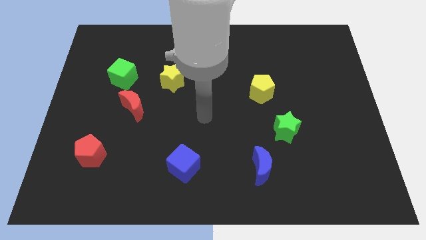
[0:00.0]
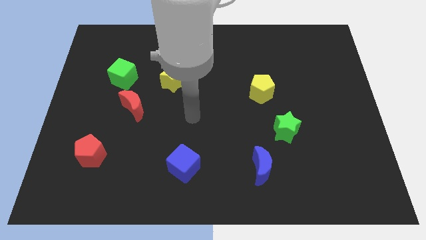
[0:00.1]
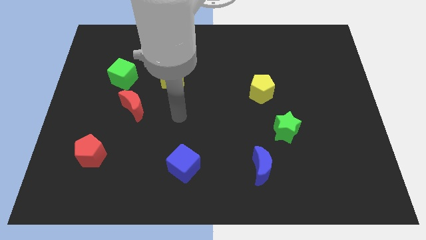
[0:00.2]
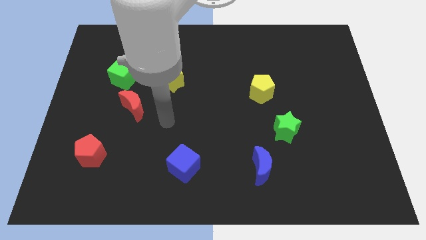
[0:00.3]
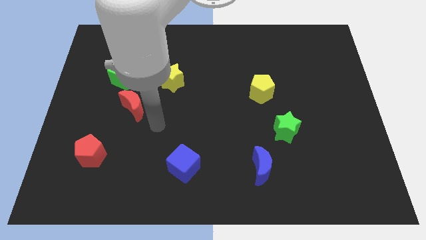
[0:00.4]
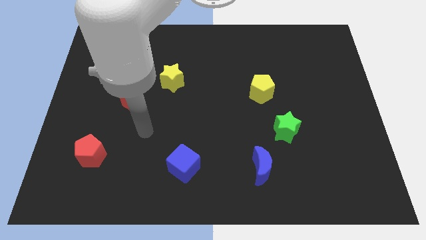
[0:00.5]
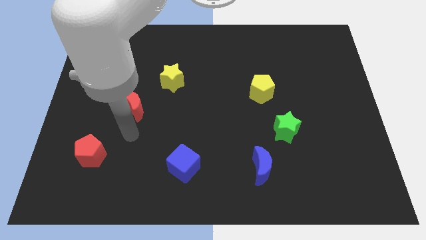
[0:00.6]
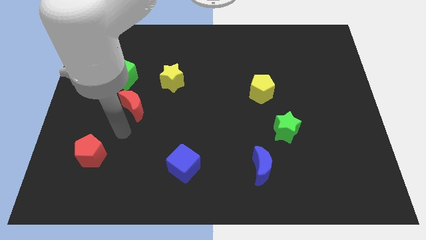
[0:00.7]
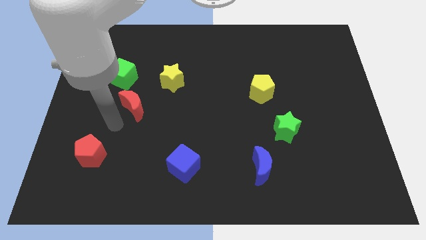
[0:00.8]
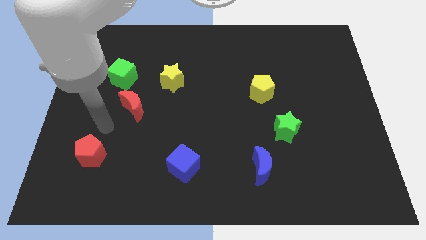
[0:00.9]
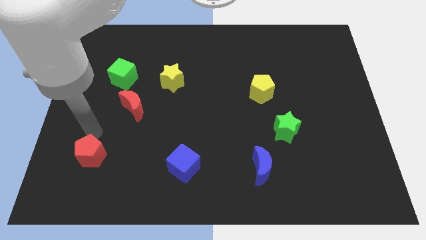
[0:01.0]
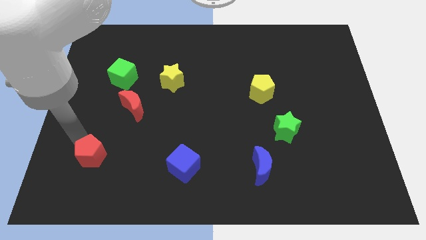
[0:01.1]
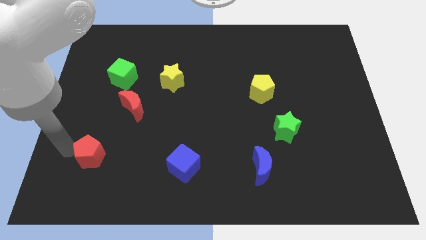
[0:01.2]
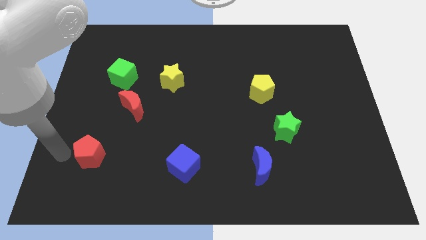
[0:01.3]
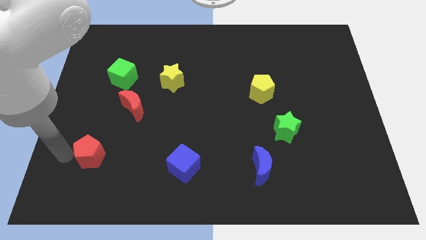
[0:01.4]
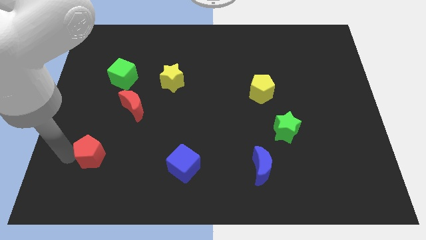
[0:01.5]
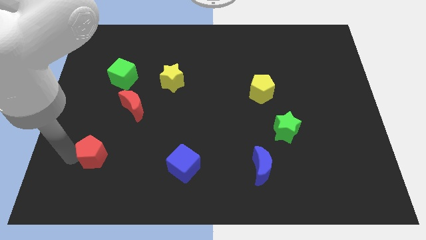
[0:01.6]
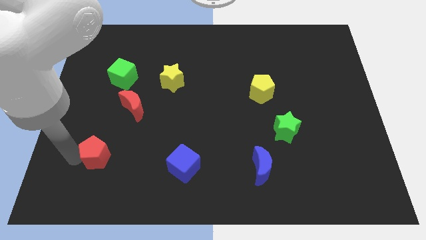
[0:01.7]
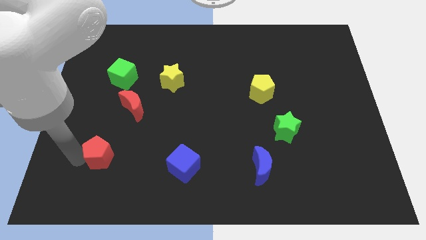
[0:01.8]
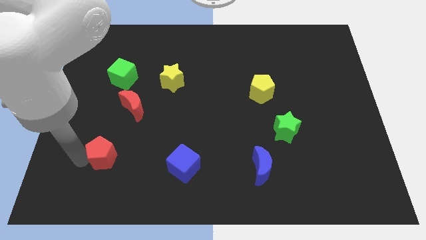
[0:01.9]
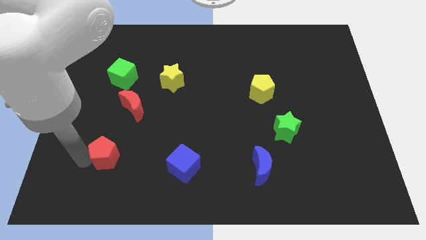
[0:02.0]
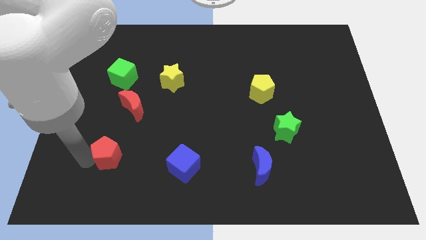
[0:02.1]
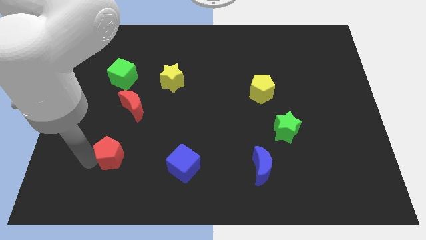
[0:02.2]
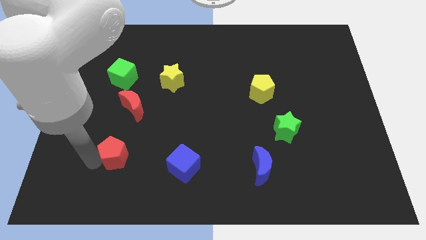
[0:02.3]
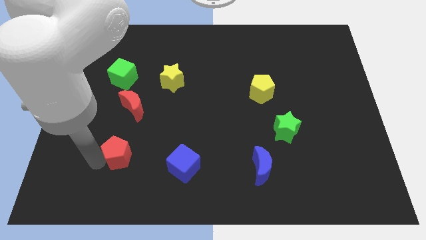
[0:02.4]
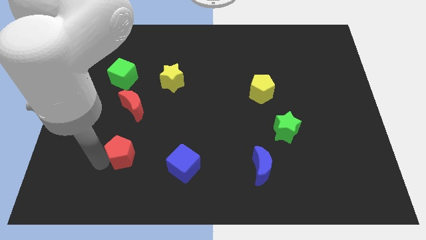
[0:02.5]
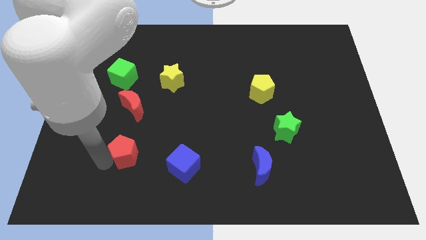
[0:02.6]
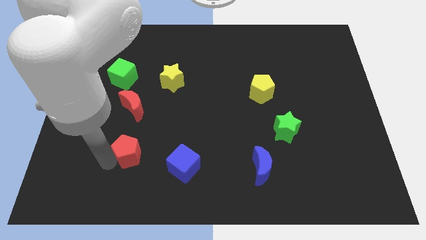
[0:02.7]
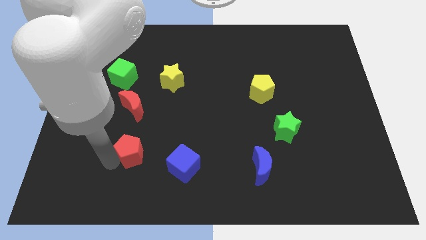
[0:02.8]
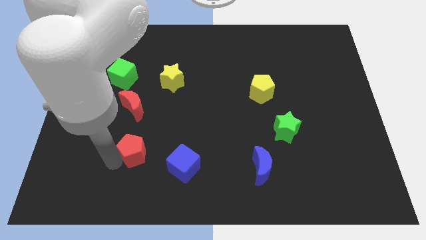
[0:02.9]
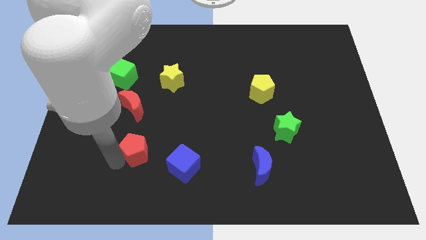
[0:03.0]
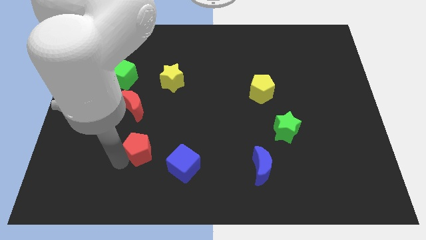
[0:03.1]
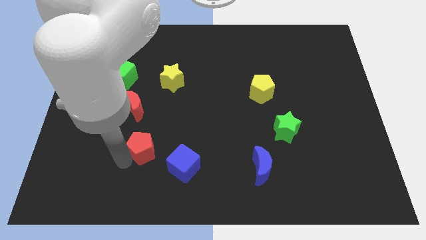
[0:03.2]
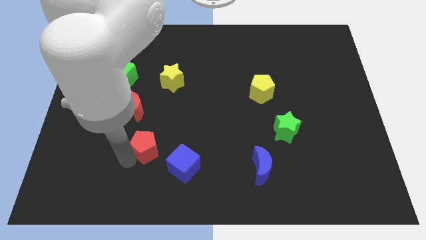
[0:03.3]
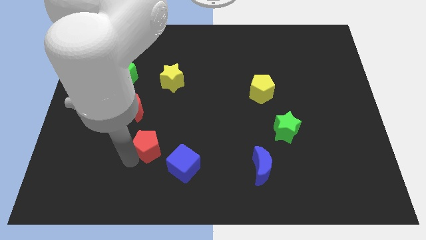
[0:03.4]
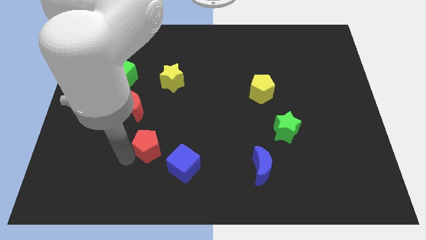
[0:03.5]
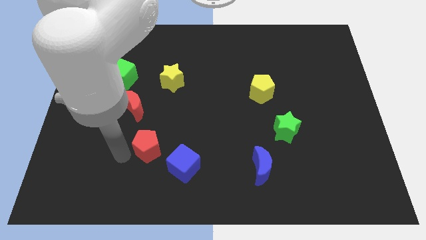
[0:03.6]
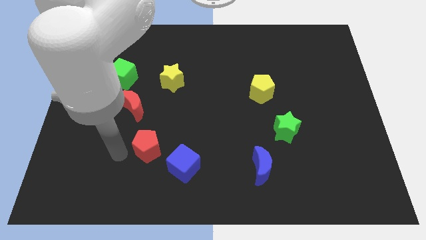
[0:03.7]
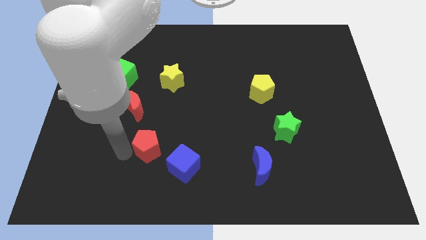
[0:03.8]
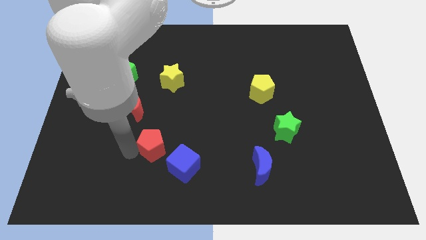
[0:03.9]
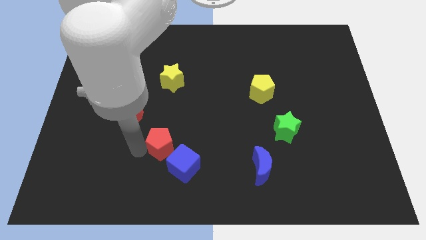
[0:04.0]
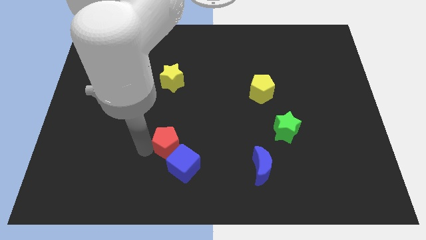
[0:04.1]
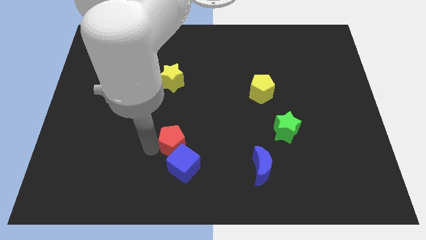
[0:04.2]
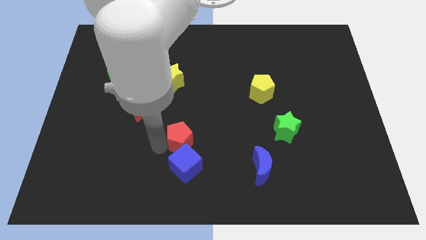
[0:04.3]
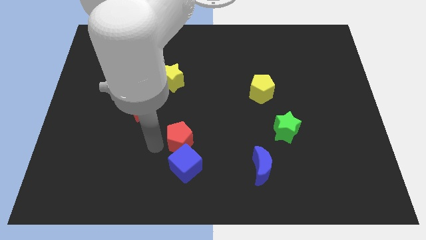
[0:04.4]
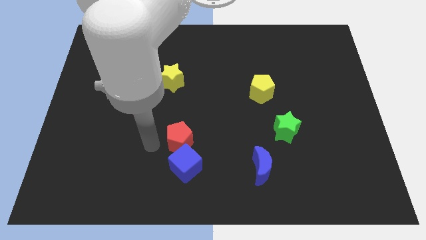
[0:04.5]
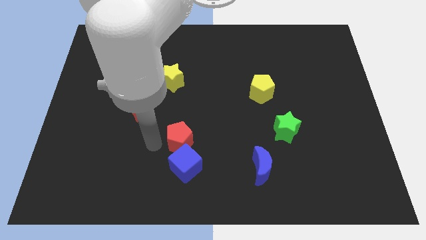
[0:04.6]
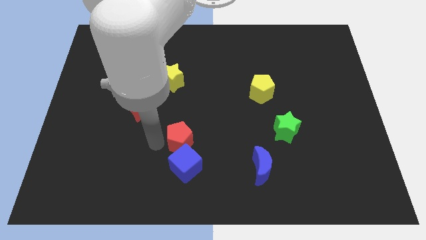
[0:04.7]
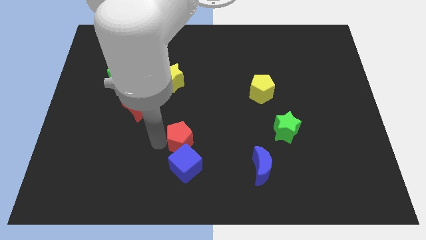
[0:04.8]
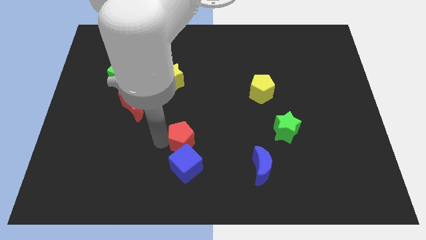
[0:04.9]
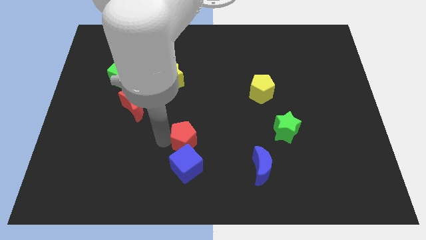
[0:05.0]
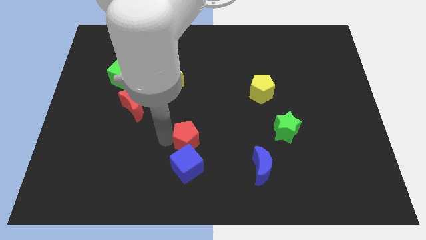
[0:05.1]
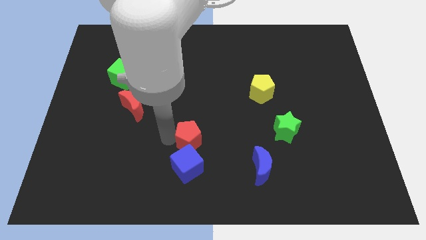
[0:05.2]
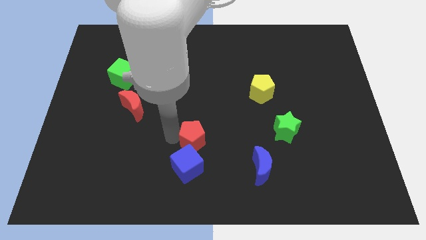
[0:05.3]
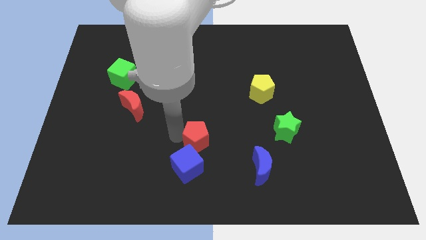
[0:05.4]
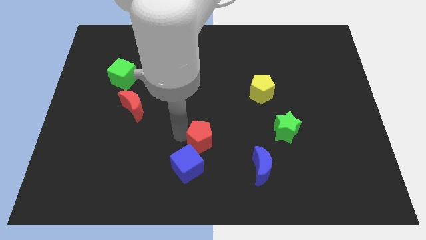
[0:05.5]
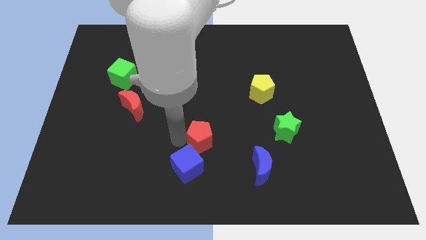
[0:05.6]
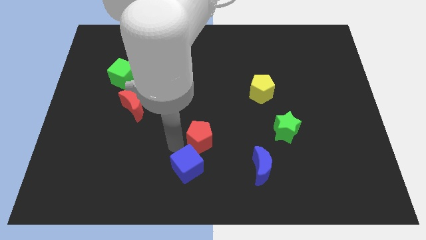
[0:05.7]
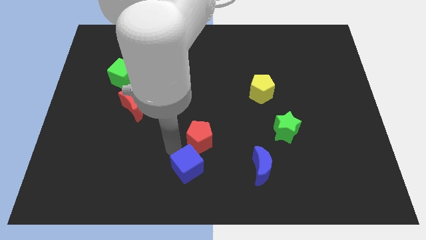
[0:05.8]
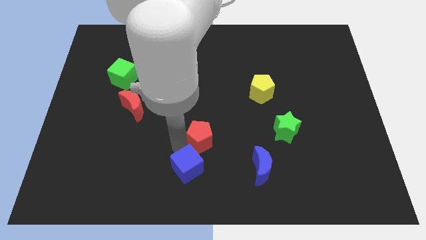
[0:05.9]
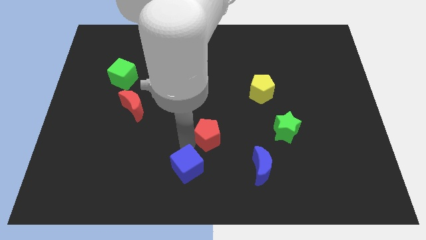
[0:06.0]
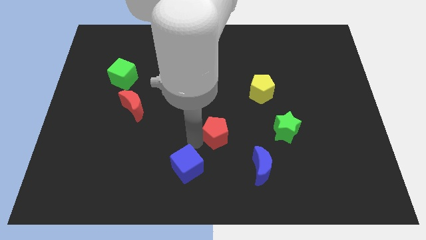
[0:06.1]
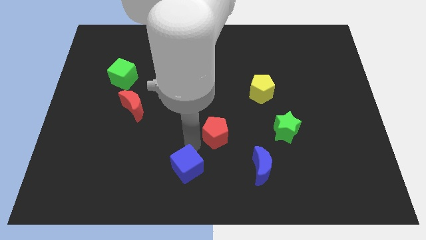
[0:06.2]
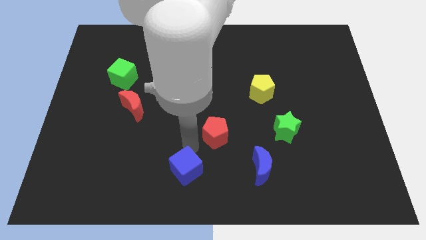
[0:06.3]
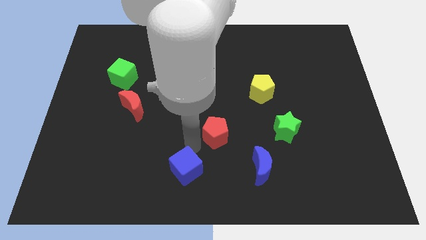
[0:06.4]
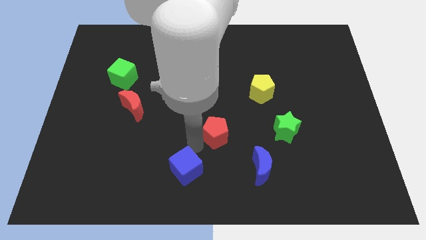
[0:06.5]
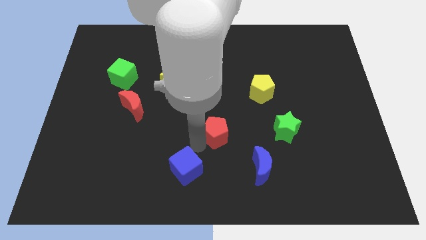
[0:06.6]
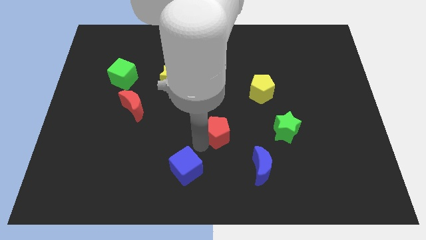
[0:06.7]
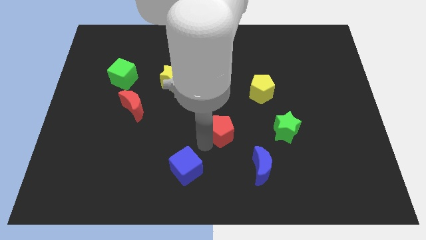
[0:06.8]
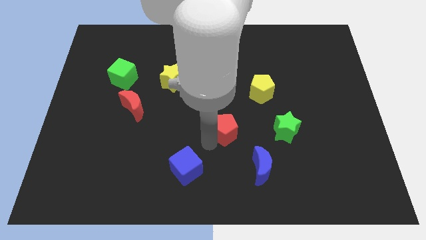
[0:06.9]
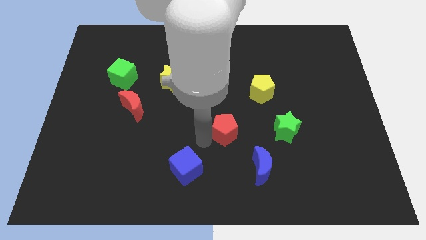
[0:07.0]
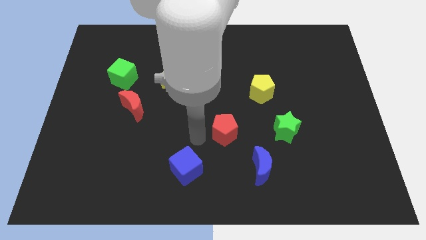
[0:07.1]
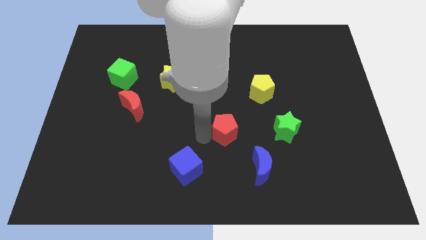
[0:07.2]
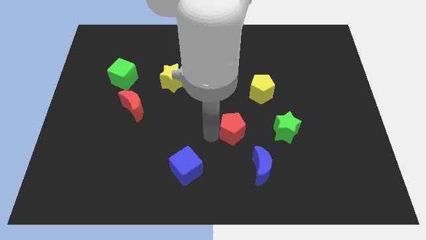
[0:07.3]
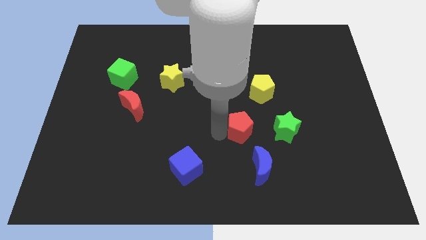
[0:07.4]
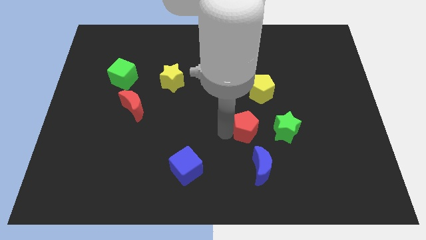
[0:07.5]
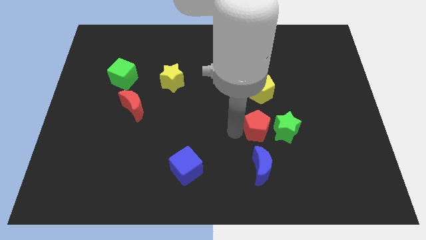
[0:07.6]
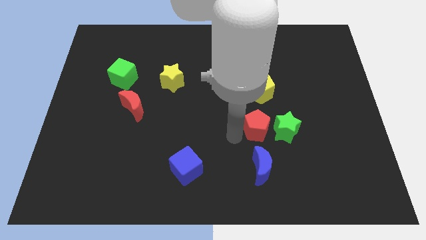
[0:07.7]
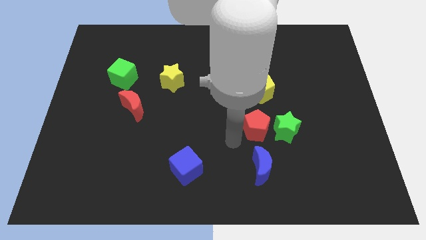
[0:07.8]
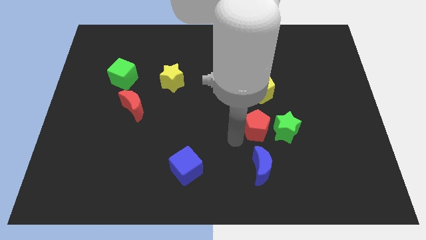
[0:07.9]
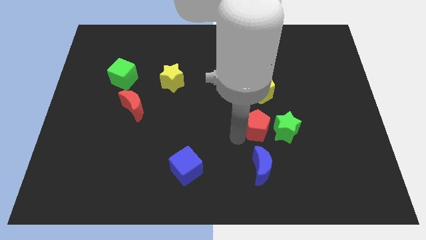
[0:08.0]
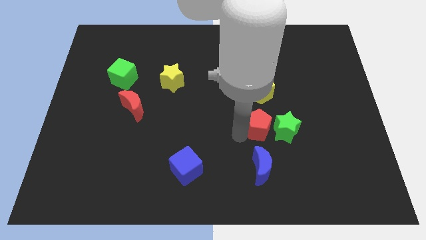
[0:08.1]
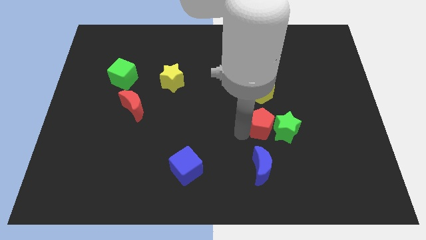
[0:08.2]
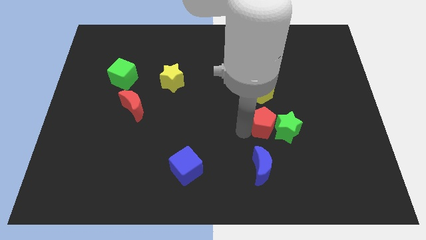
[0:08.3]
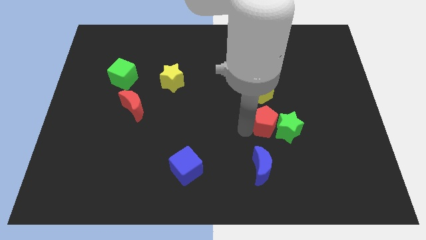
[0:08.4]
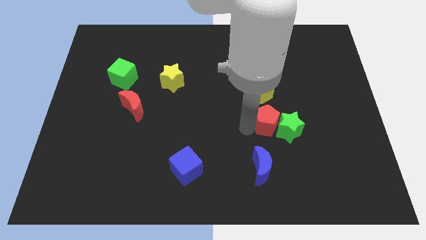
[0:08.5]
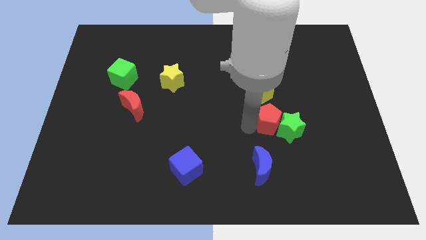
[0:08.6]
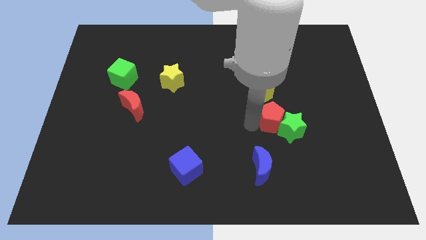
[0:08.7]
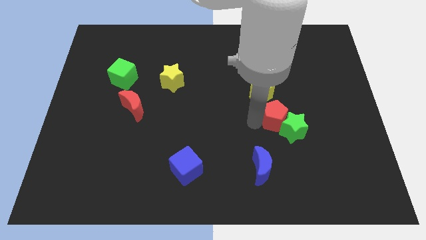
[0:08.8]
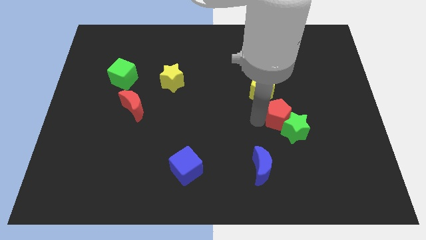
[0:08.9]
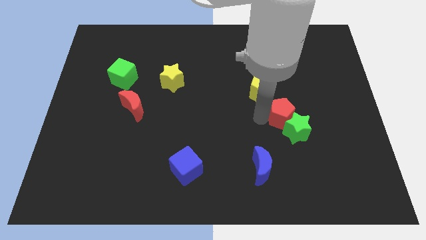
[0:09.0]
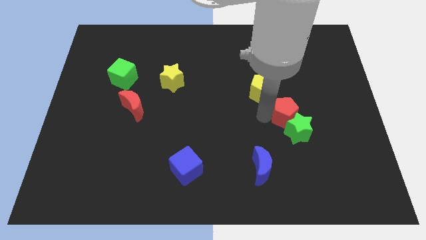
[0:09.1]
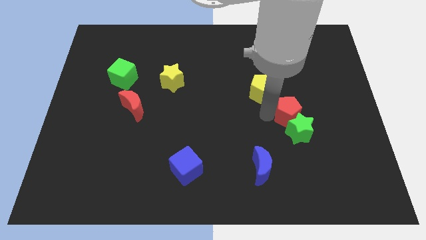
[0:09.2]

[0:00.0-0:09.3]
put the red pentagon to the top right of the green star
